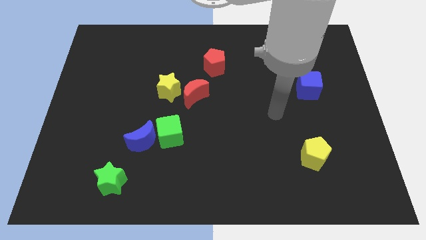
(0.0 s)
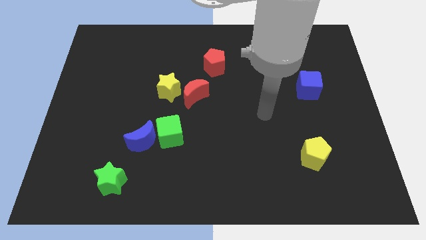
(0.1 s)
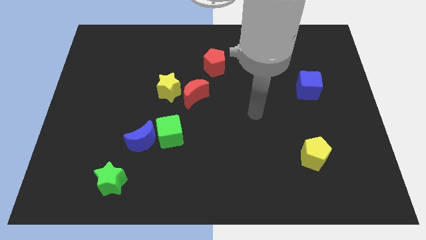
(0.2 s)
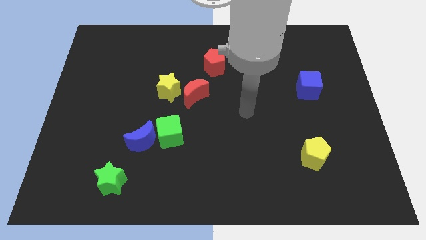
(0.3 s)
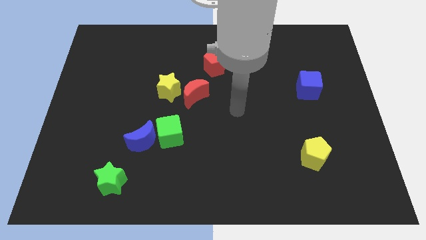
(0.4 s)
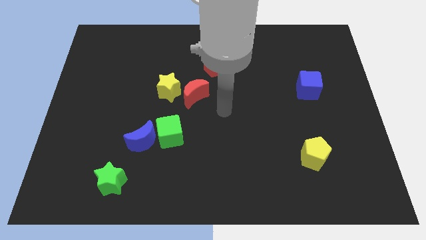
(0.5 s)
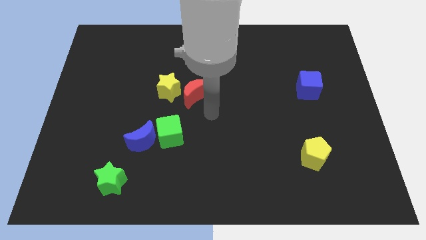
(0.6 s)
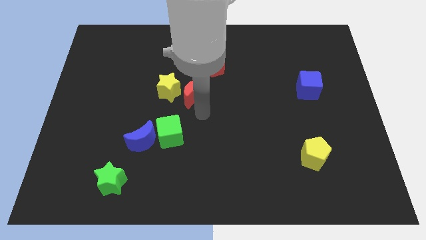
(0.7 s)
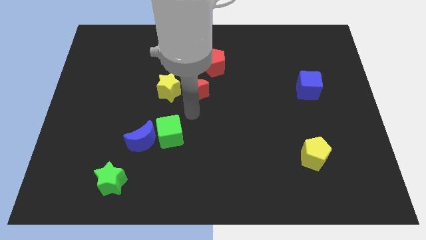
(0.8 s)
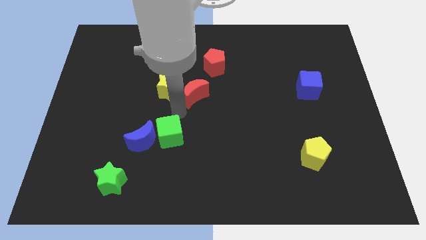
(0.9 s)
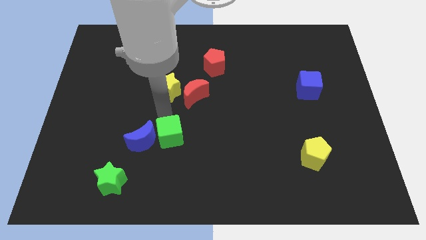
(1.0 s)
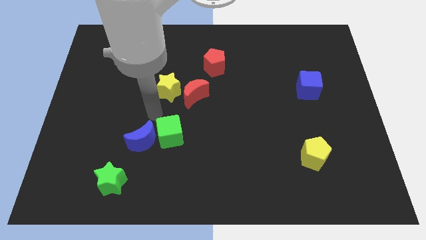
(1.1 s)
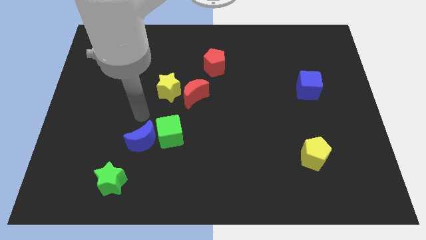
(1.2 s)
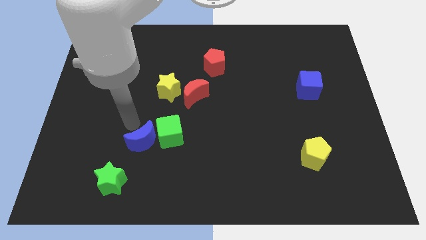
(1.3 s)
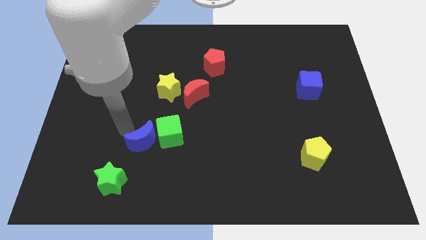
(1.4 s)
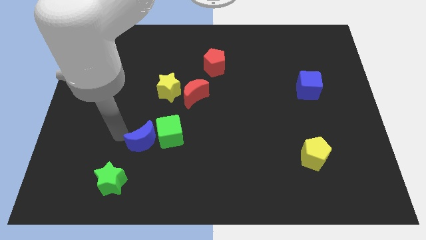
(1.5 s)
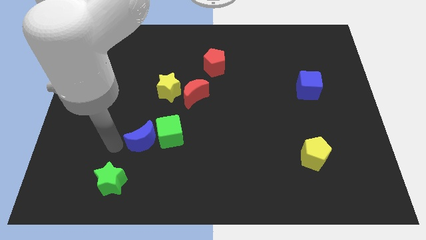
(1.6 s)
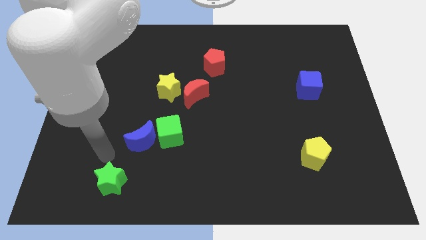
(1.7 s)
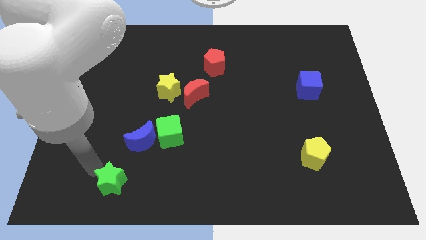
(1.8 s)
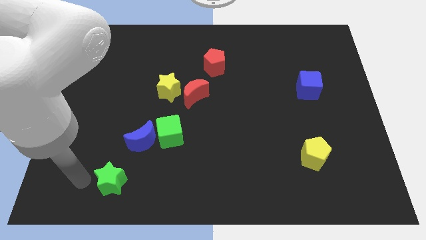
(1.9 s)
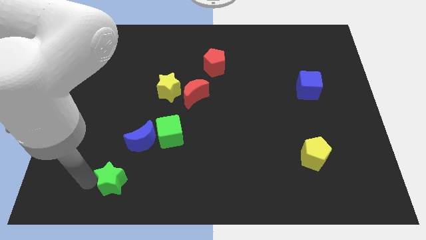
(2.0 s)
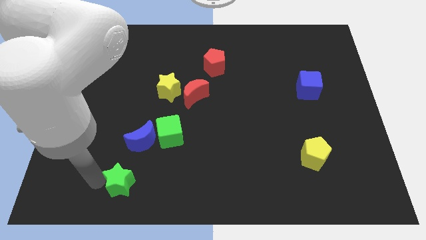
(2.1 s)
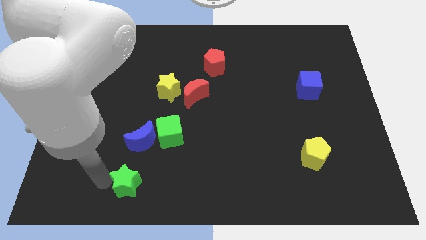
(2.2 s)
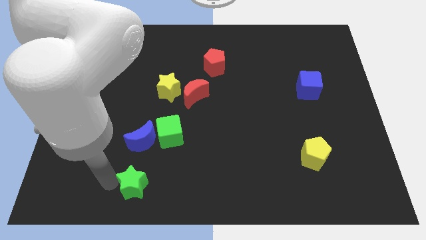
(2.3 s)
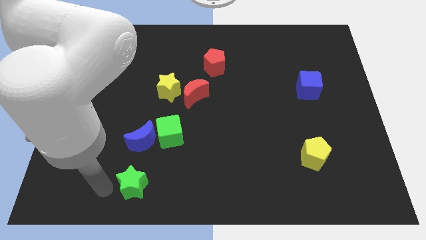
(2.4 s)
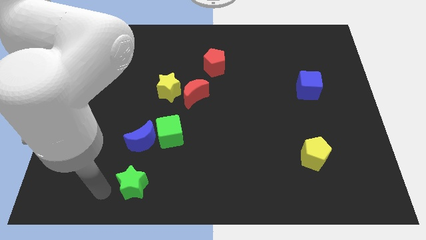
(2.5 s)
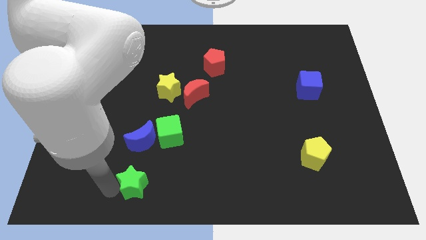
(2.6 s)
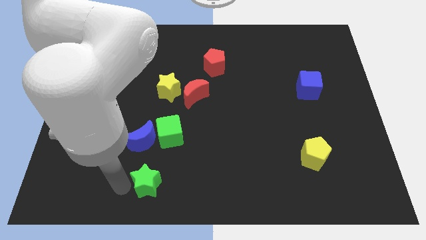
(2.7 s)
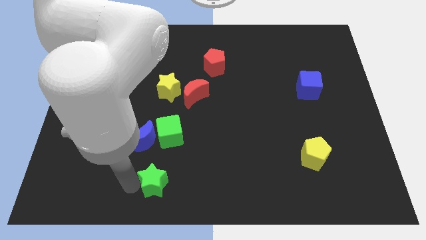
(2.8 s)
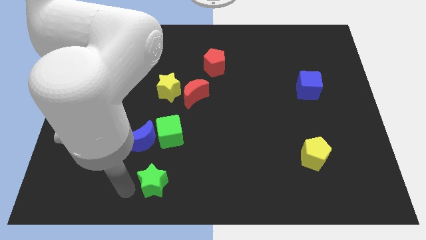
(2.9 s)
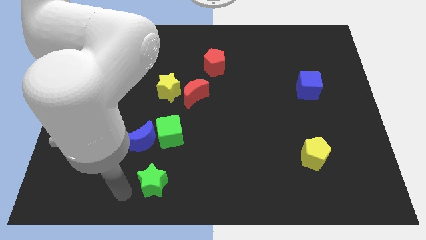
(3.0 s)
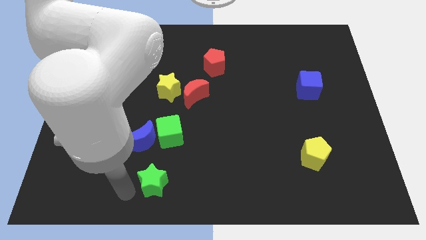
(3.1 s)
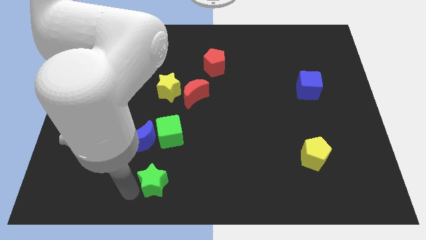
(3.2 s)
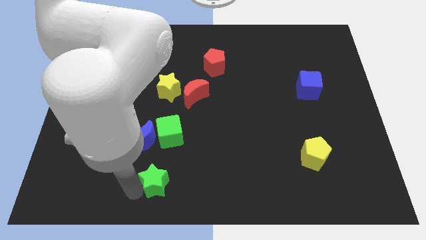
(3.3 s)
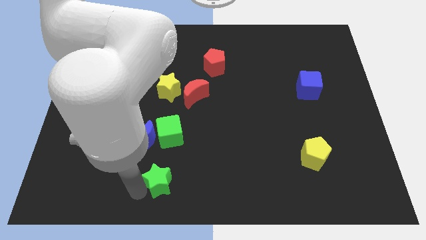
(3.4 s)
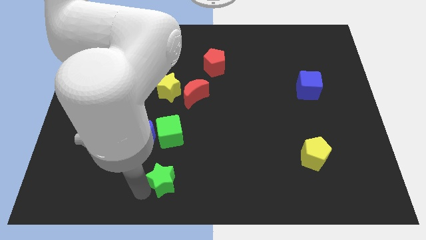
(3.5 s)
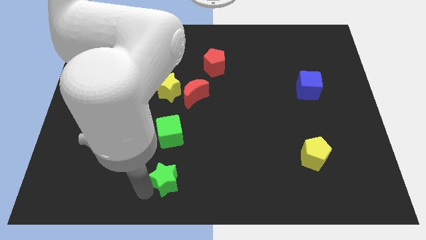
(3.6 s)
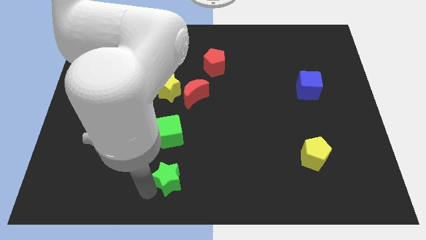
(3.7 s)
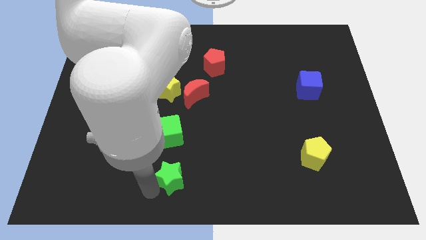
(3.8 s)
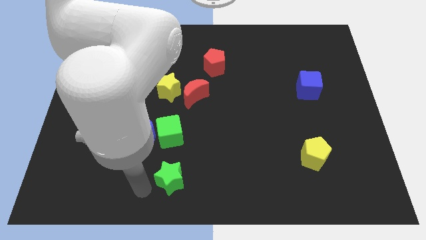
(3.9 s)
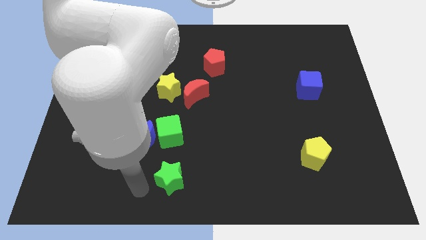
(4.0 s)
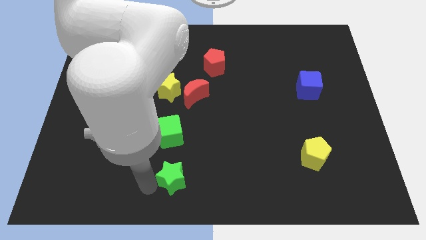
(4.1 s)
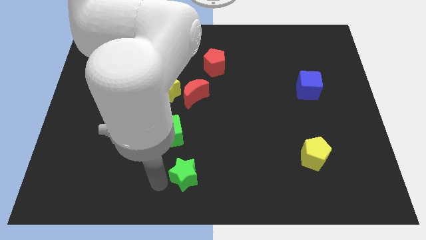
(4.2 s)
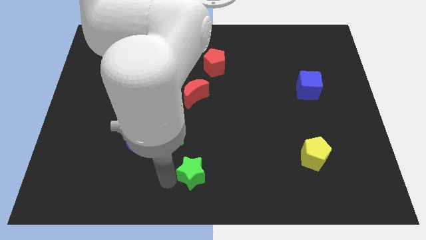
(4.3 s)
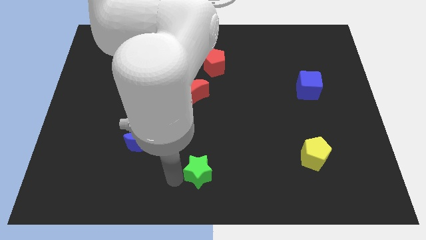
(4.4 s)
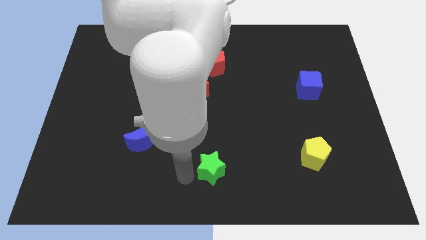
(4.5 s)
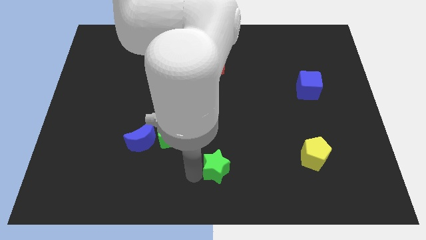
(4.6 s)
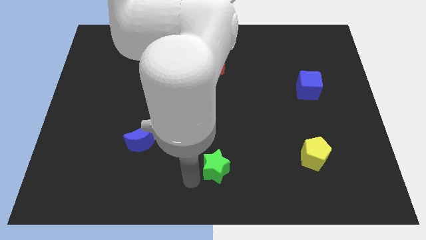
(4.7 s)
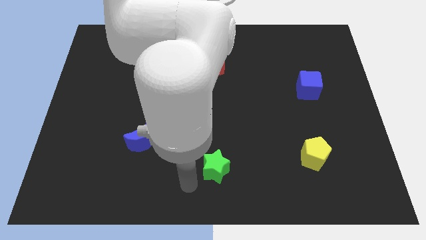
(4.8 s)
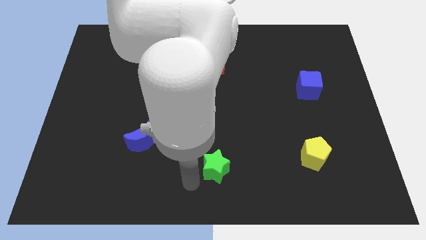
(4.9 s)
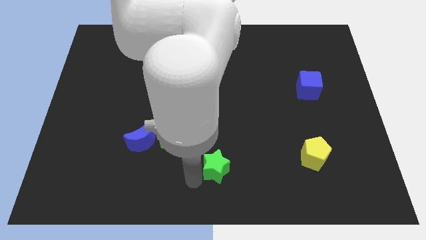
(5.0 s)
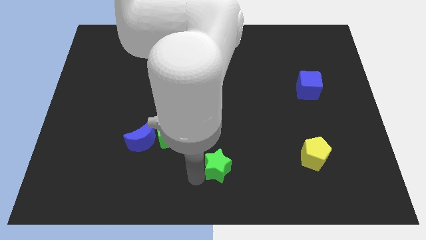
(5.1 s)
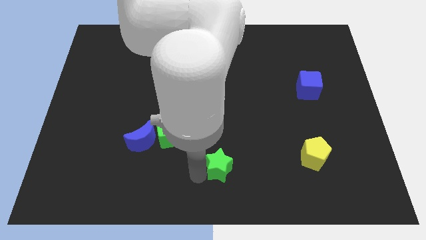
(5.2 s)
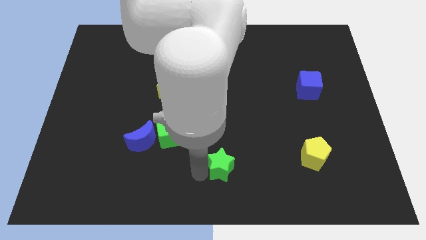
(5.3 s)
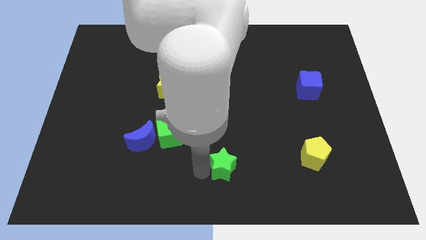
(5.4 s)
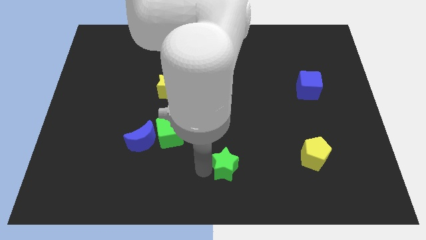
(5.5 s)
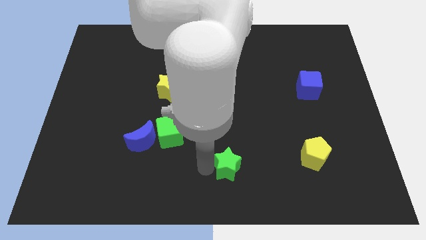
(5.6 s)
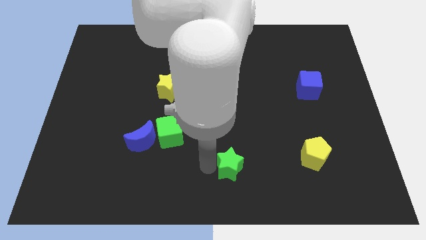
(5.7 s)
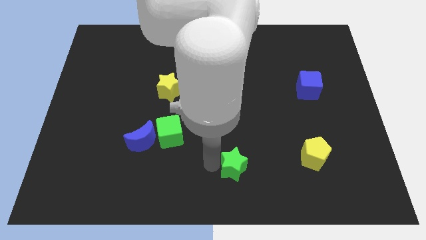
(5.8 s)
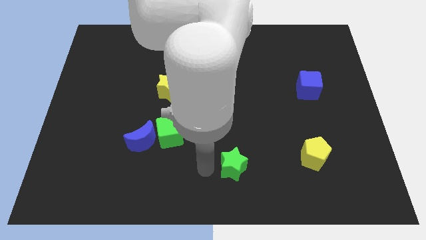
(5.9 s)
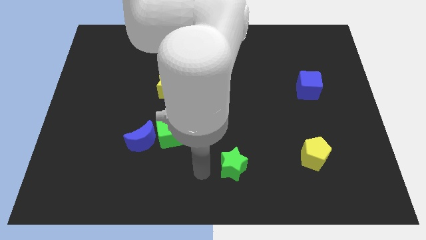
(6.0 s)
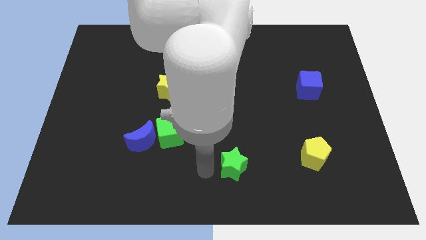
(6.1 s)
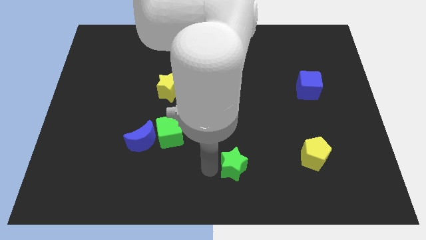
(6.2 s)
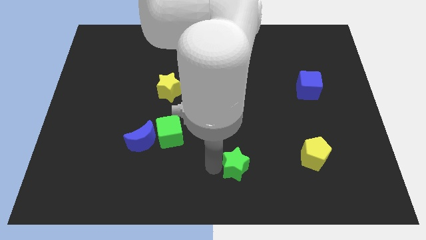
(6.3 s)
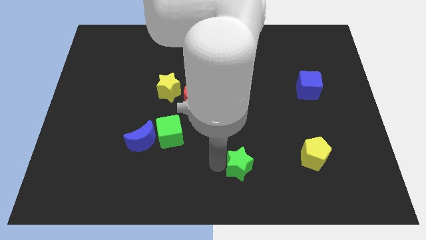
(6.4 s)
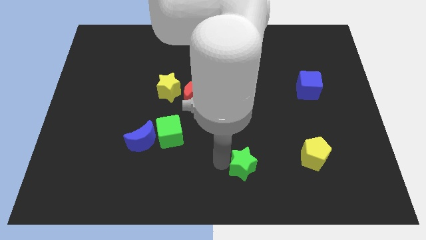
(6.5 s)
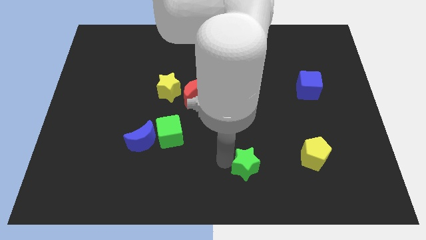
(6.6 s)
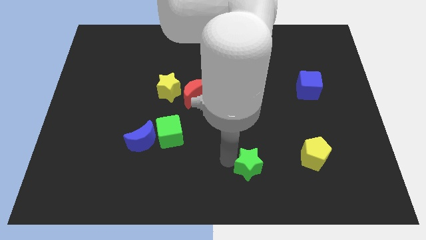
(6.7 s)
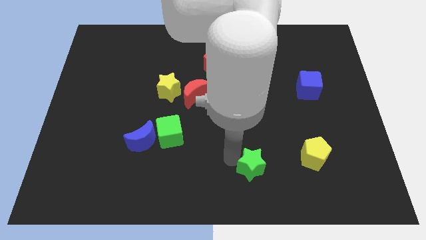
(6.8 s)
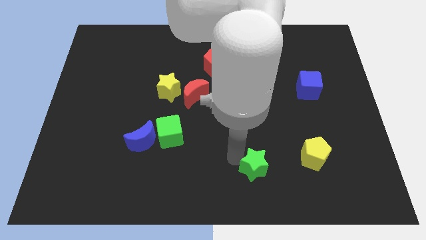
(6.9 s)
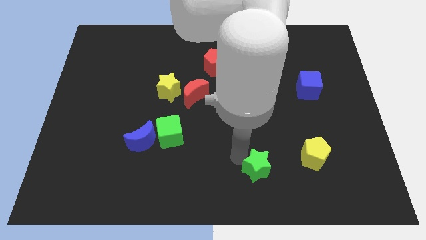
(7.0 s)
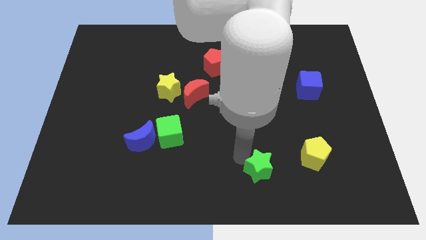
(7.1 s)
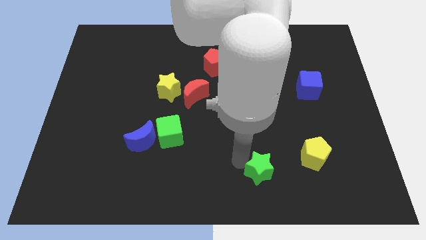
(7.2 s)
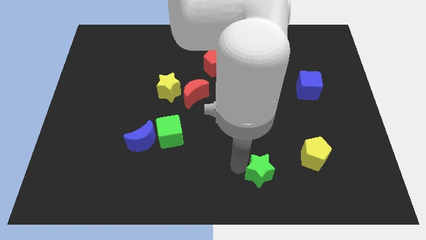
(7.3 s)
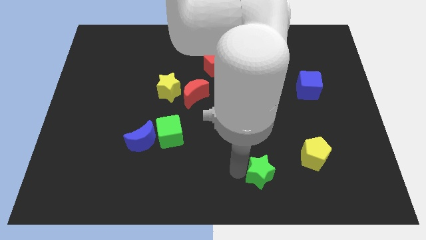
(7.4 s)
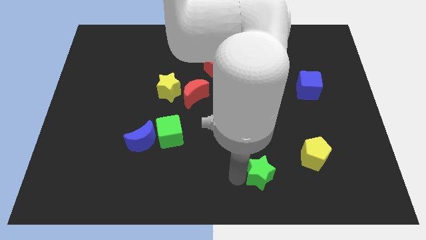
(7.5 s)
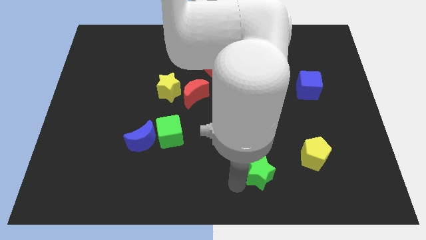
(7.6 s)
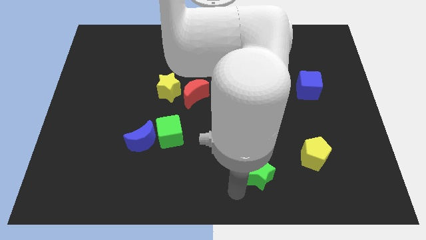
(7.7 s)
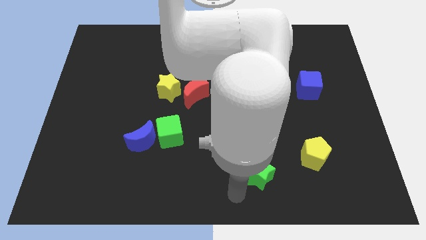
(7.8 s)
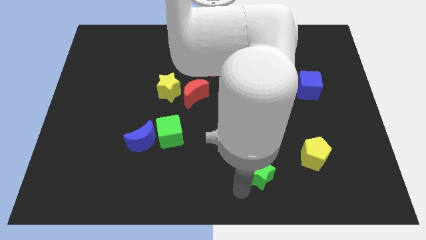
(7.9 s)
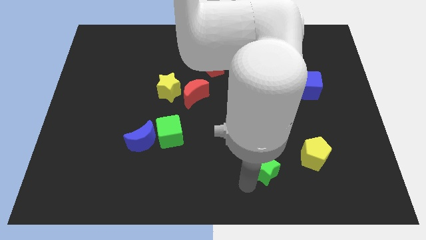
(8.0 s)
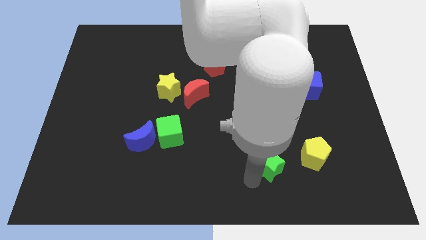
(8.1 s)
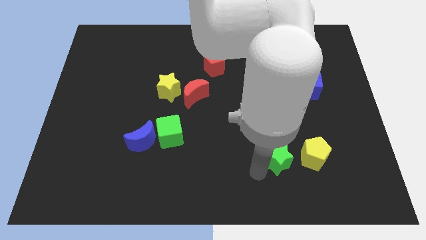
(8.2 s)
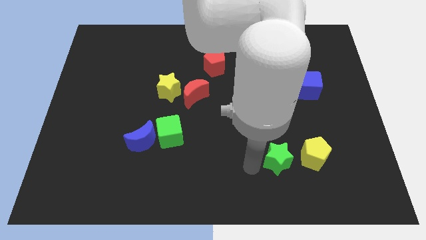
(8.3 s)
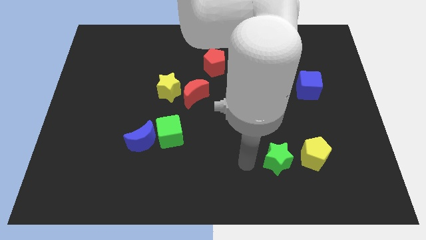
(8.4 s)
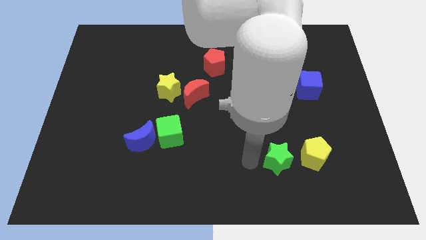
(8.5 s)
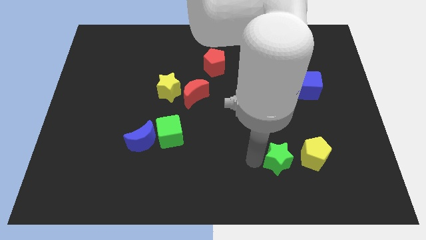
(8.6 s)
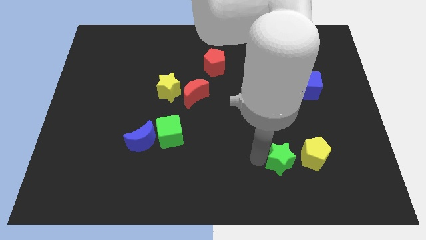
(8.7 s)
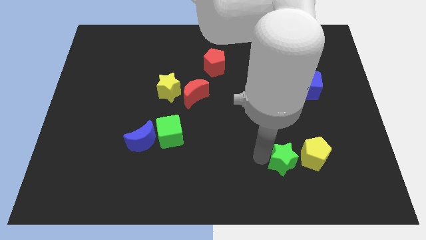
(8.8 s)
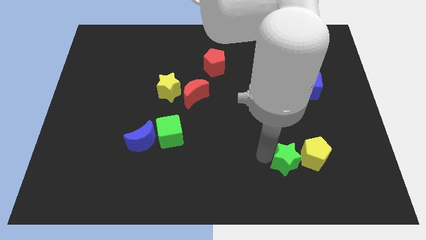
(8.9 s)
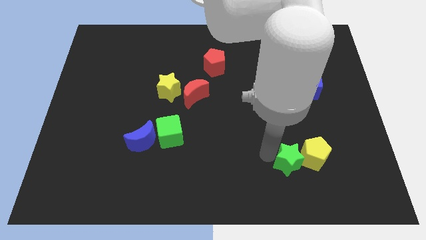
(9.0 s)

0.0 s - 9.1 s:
move the green star close to the yellow pentagon
